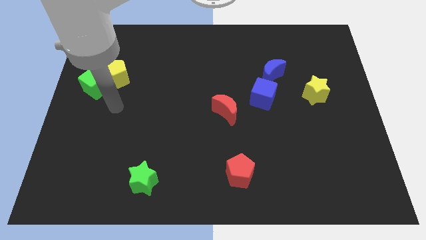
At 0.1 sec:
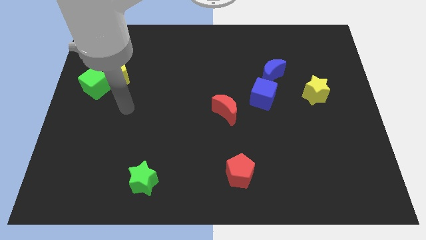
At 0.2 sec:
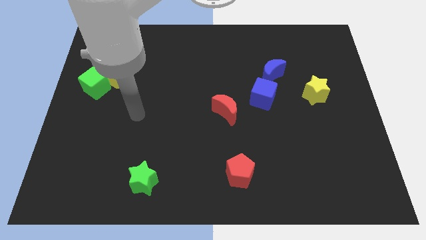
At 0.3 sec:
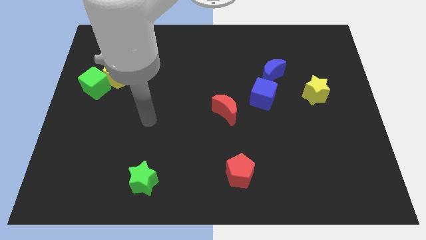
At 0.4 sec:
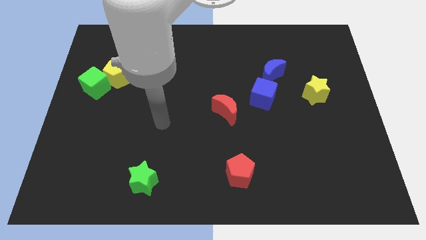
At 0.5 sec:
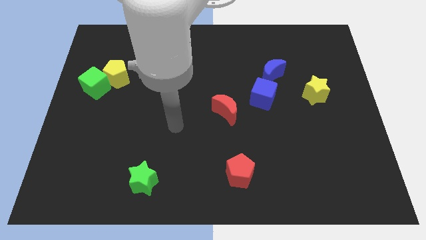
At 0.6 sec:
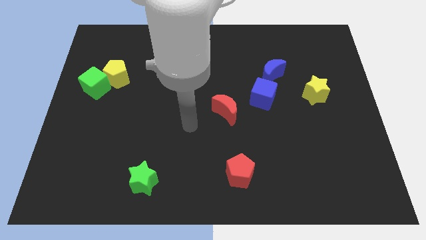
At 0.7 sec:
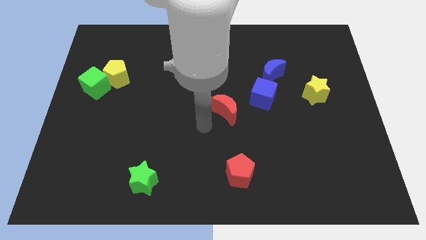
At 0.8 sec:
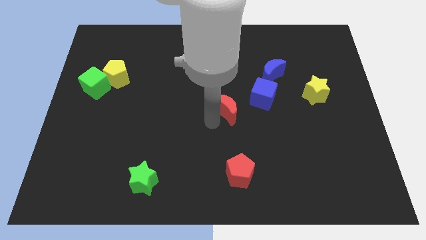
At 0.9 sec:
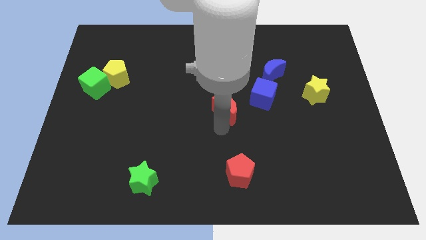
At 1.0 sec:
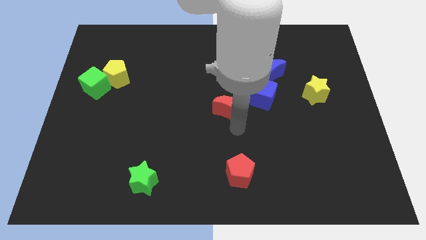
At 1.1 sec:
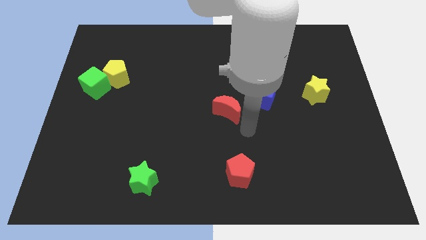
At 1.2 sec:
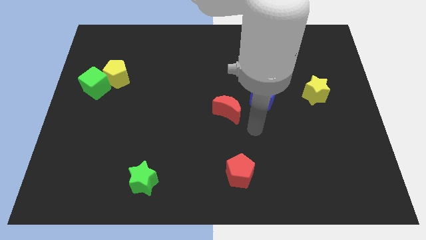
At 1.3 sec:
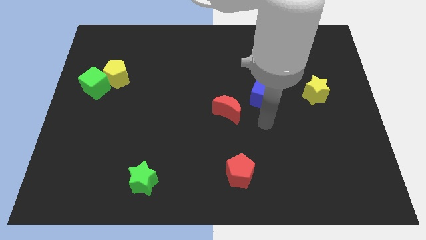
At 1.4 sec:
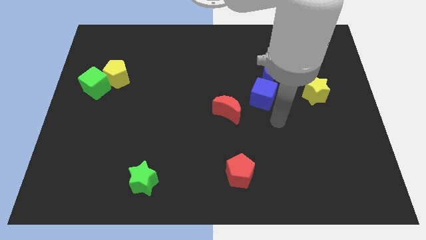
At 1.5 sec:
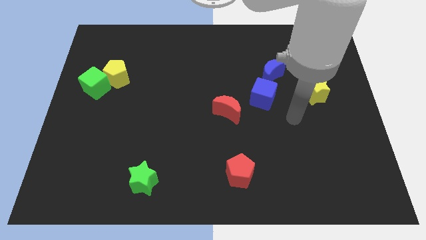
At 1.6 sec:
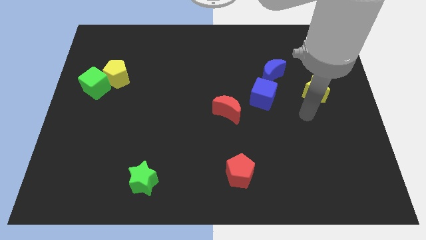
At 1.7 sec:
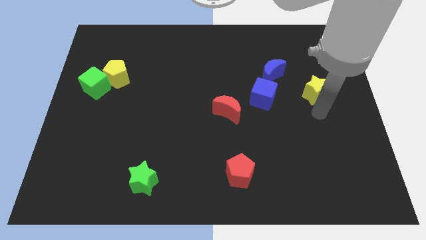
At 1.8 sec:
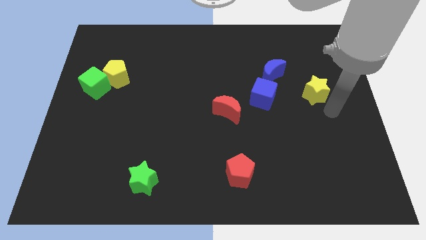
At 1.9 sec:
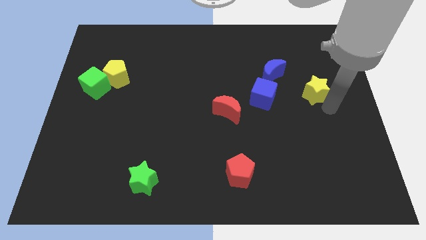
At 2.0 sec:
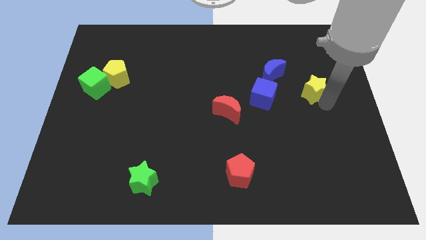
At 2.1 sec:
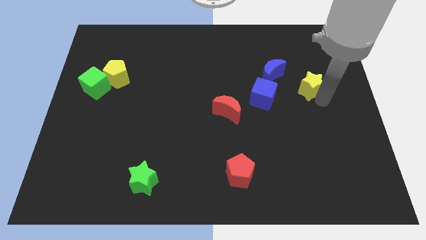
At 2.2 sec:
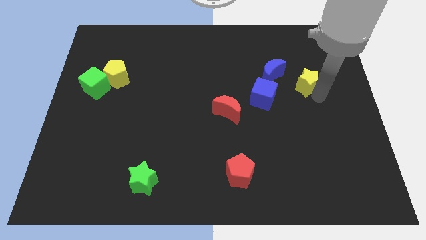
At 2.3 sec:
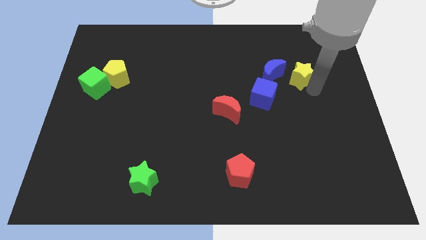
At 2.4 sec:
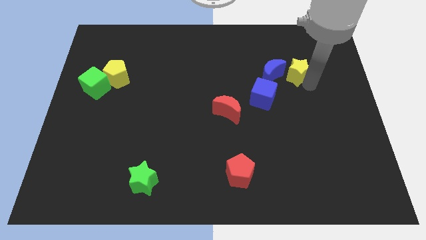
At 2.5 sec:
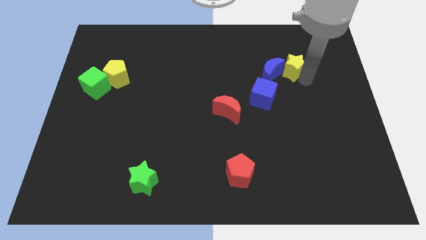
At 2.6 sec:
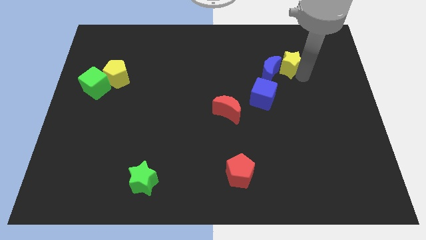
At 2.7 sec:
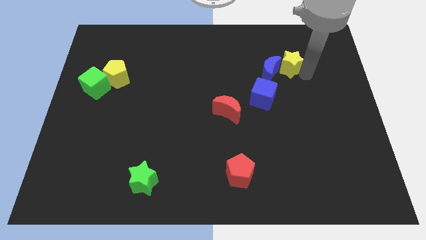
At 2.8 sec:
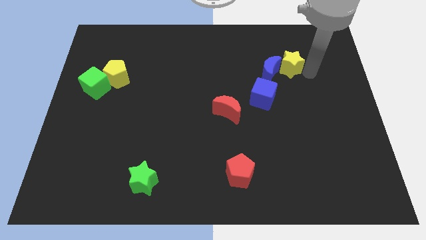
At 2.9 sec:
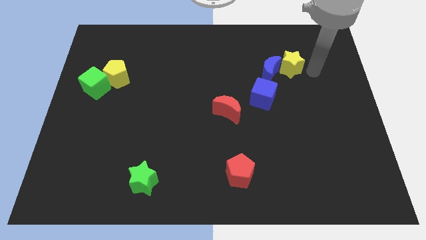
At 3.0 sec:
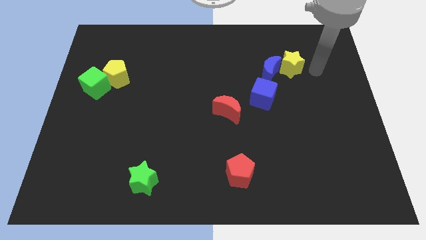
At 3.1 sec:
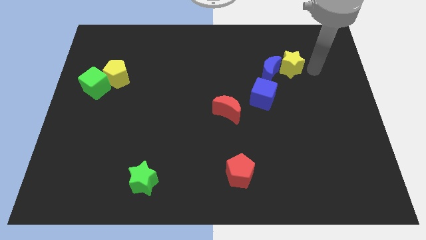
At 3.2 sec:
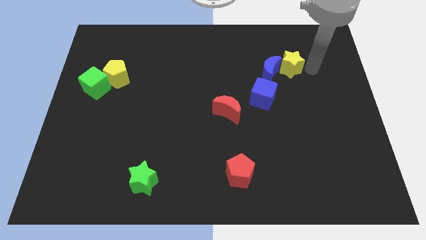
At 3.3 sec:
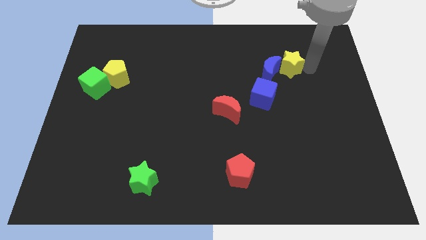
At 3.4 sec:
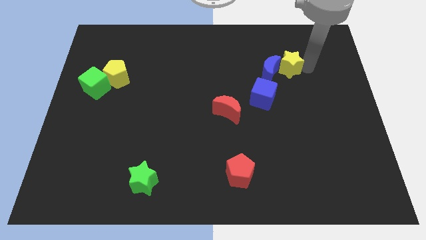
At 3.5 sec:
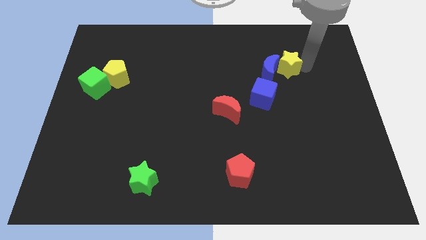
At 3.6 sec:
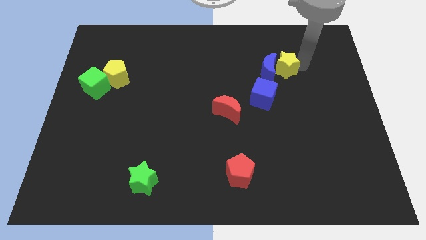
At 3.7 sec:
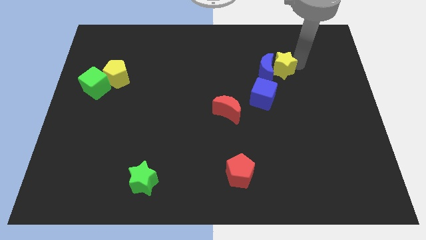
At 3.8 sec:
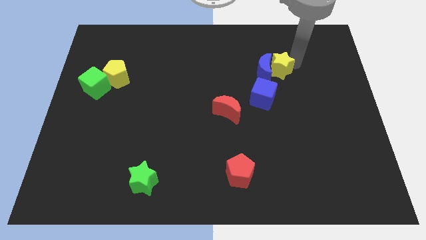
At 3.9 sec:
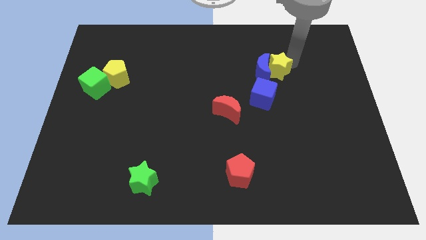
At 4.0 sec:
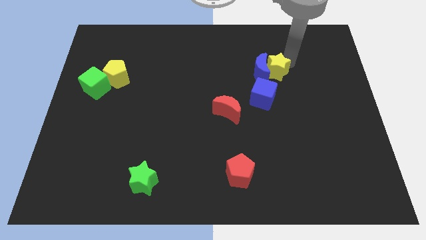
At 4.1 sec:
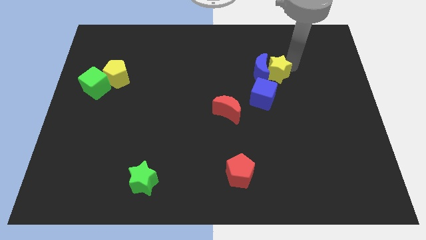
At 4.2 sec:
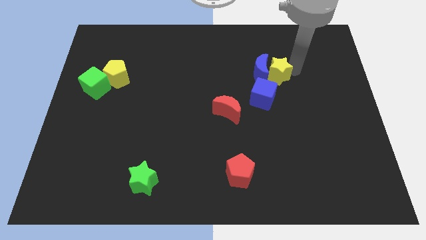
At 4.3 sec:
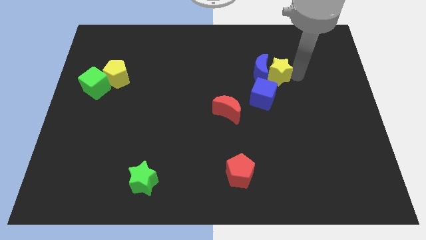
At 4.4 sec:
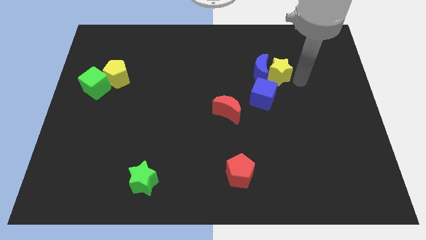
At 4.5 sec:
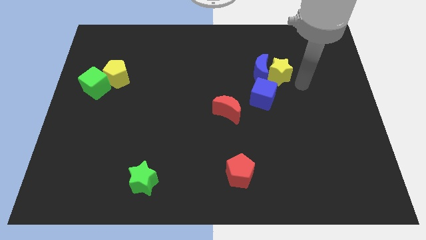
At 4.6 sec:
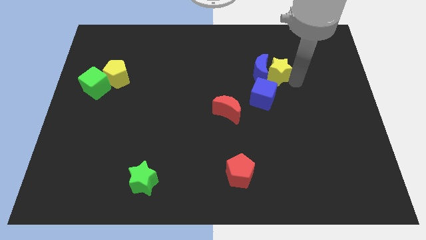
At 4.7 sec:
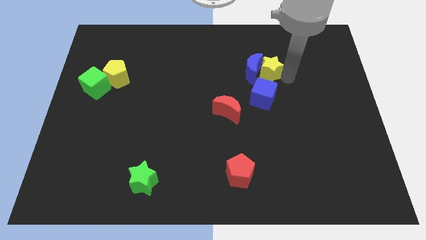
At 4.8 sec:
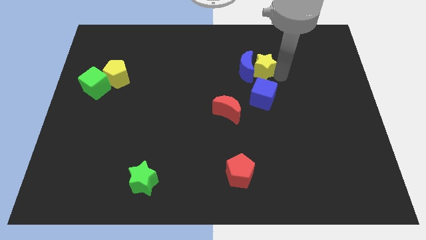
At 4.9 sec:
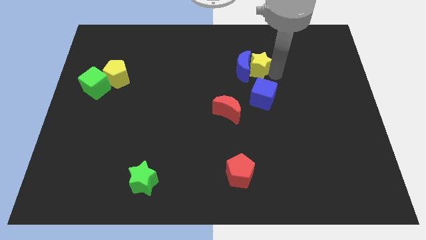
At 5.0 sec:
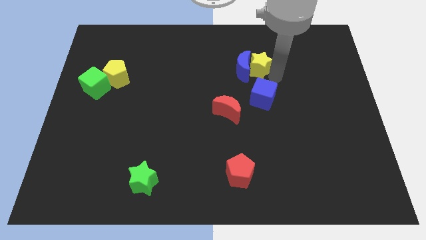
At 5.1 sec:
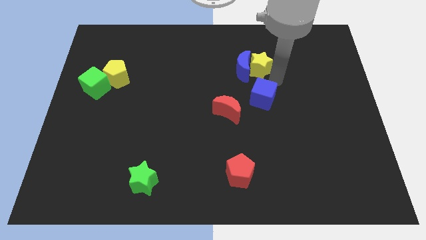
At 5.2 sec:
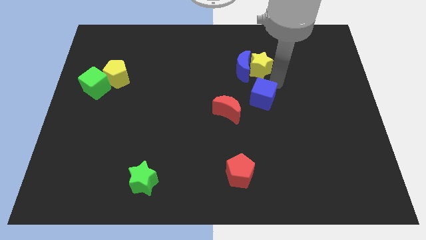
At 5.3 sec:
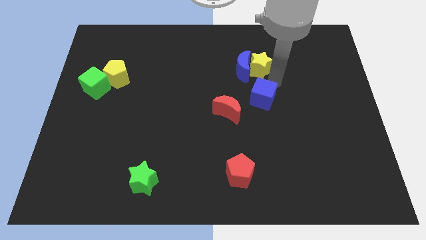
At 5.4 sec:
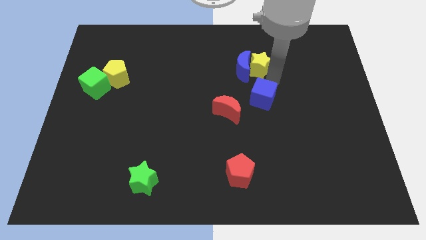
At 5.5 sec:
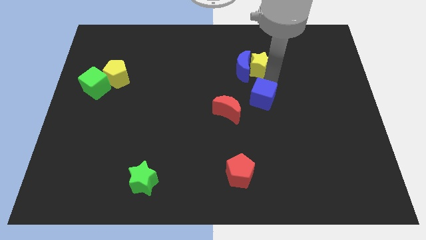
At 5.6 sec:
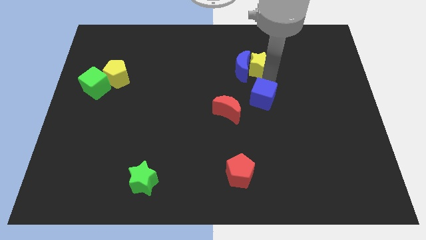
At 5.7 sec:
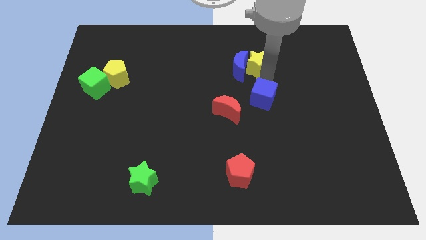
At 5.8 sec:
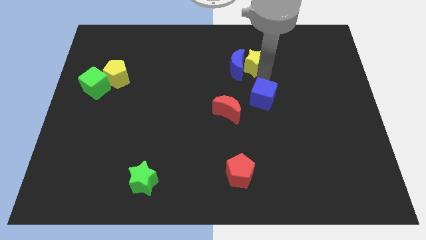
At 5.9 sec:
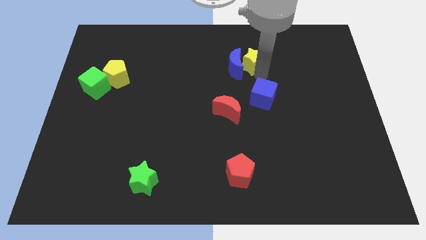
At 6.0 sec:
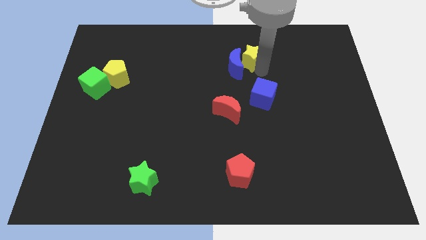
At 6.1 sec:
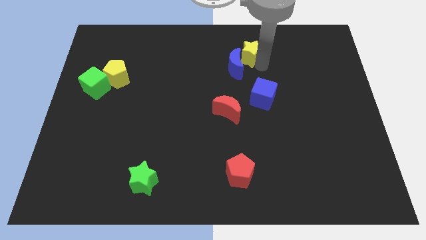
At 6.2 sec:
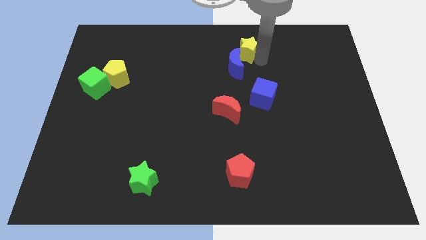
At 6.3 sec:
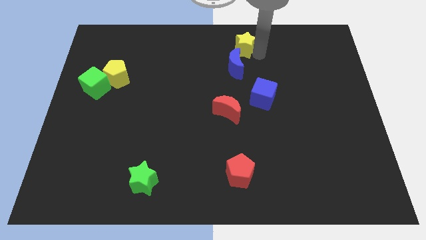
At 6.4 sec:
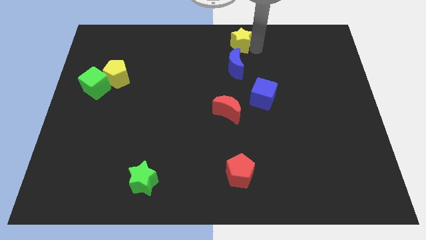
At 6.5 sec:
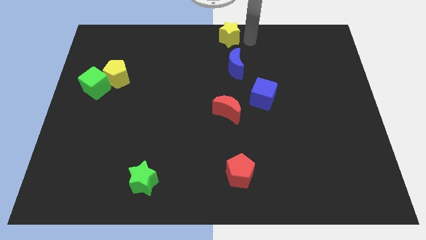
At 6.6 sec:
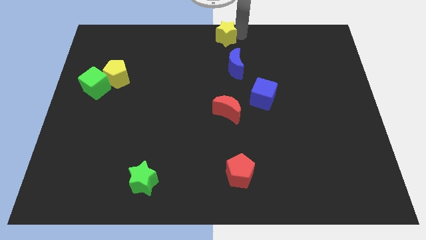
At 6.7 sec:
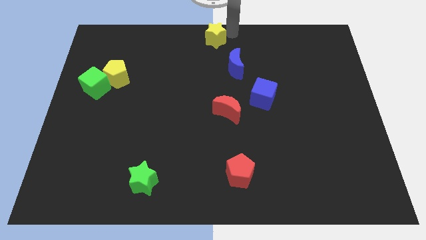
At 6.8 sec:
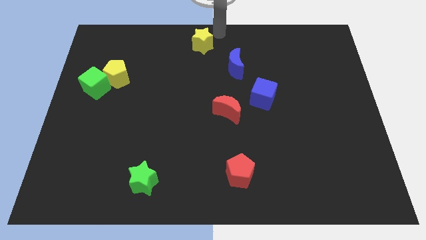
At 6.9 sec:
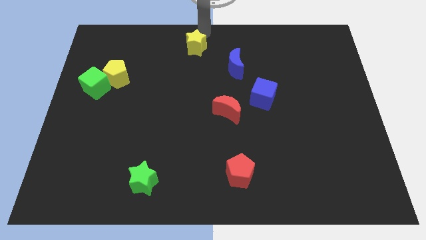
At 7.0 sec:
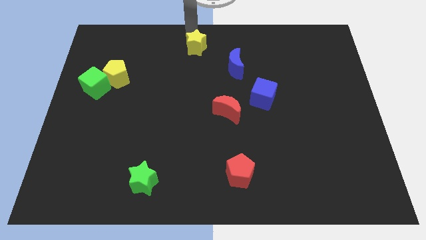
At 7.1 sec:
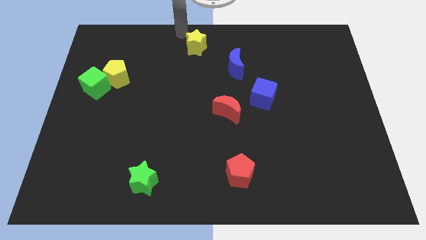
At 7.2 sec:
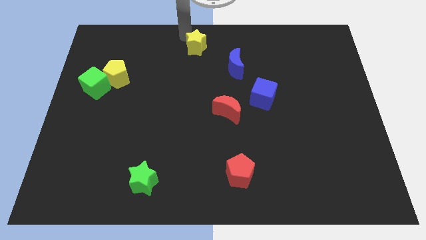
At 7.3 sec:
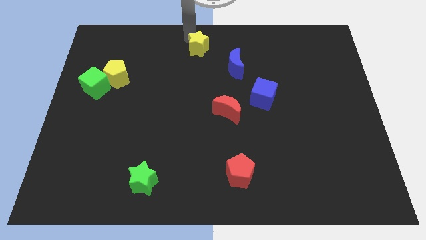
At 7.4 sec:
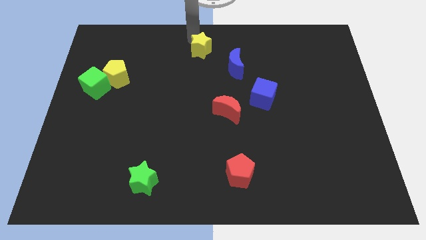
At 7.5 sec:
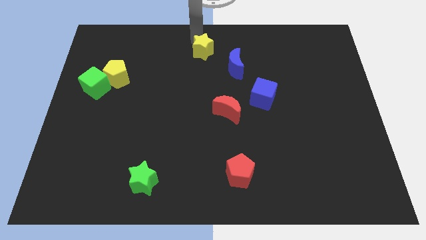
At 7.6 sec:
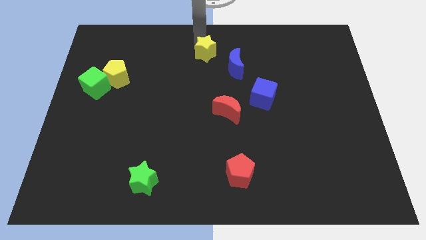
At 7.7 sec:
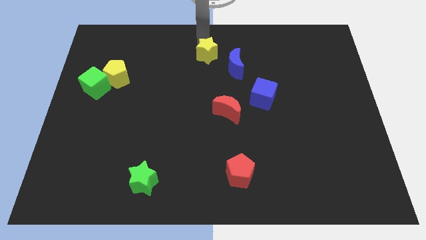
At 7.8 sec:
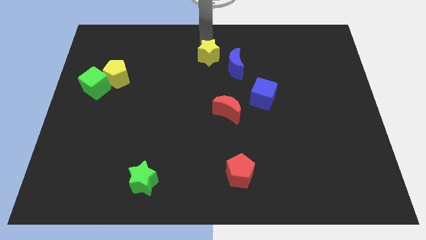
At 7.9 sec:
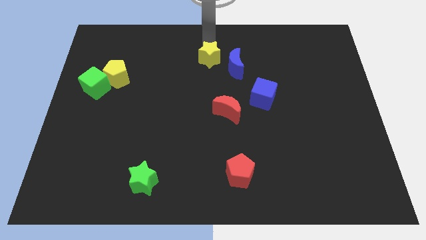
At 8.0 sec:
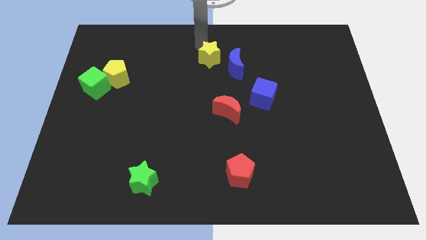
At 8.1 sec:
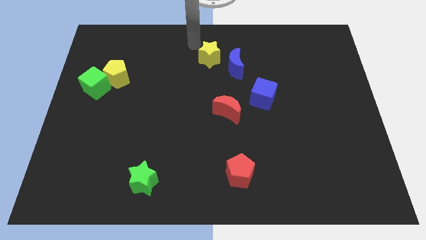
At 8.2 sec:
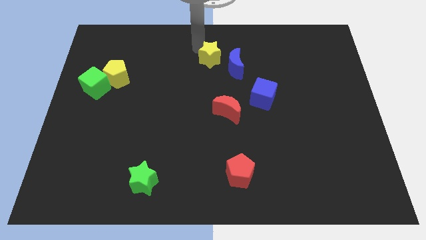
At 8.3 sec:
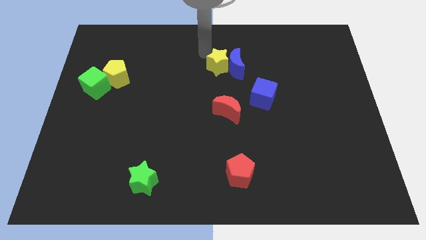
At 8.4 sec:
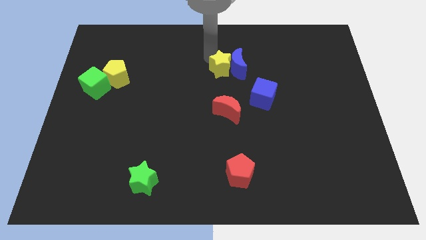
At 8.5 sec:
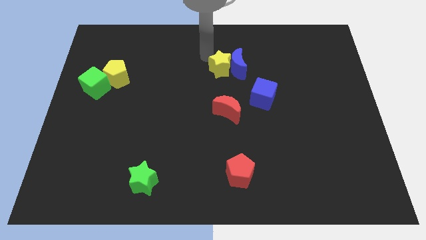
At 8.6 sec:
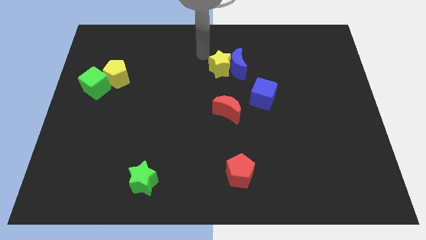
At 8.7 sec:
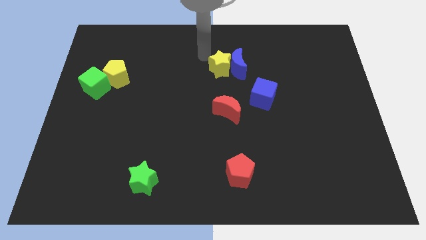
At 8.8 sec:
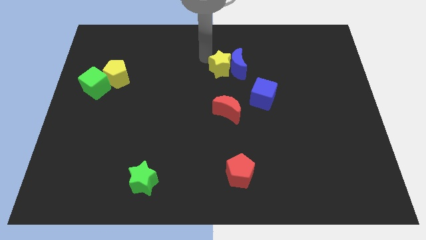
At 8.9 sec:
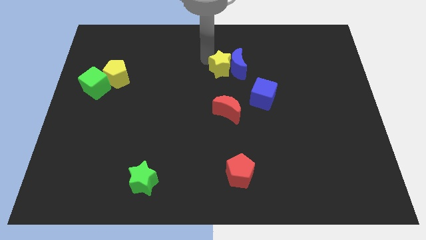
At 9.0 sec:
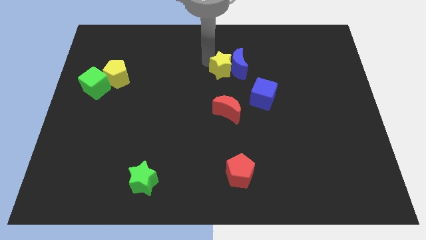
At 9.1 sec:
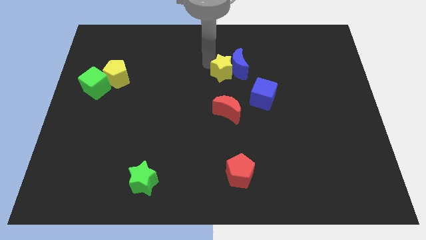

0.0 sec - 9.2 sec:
push the yellow star to the top left of the blue cube
